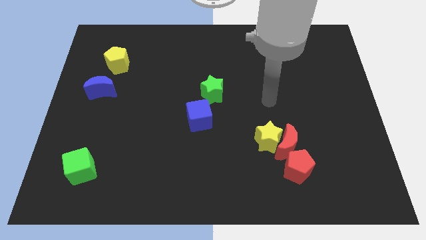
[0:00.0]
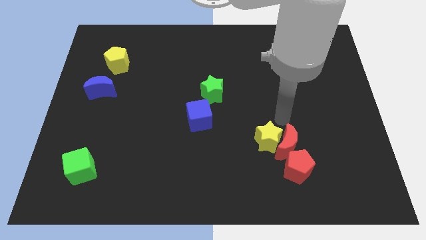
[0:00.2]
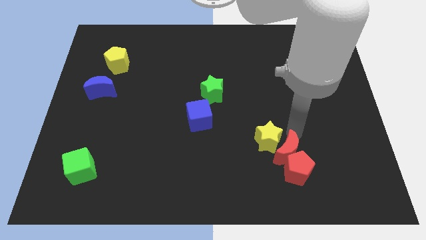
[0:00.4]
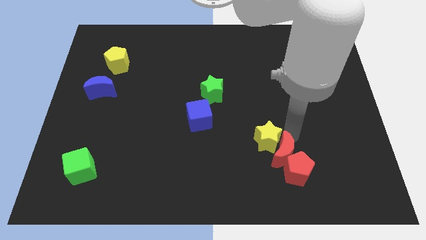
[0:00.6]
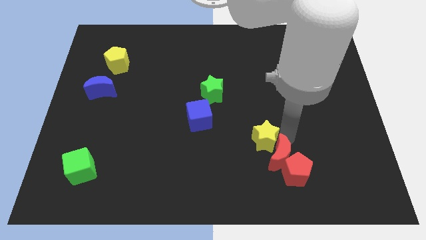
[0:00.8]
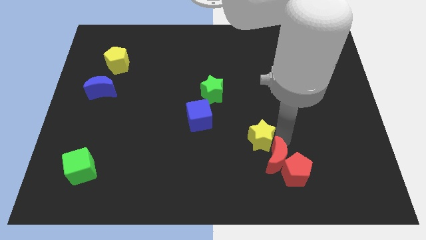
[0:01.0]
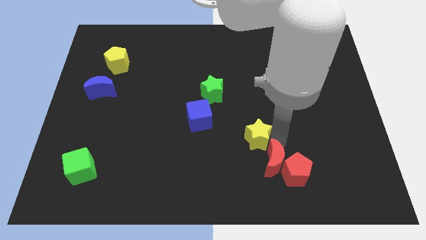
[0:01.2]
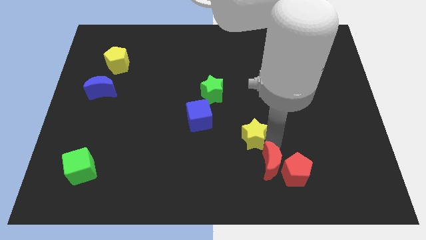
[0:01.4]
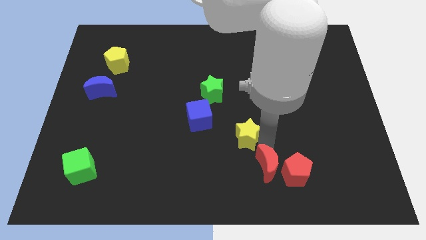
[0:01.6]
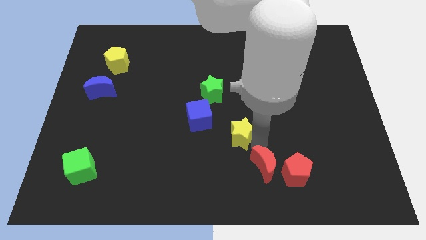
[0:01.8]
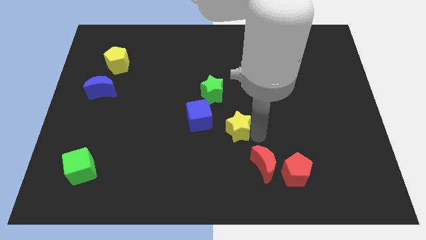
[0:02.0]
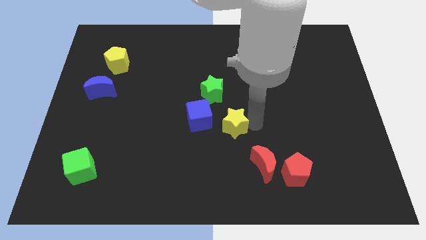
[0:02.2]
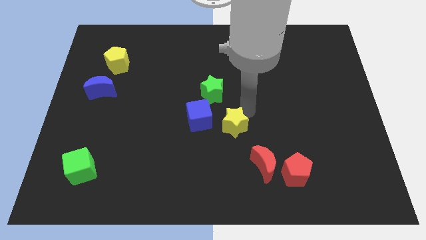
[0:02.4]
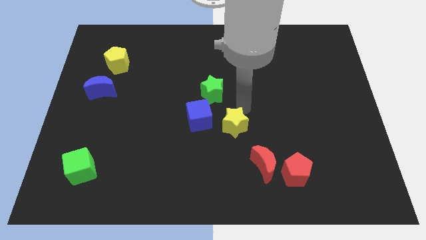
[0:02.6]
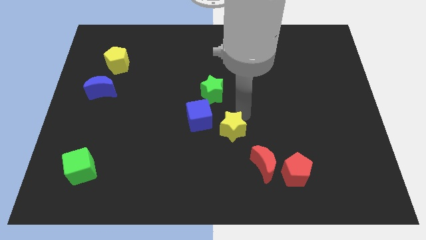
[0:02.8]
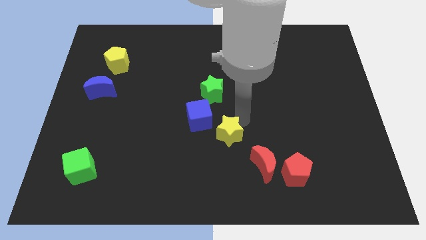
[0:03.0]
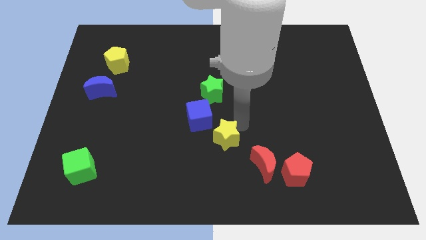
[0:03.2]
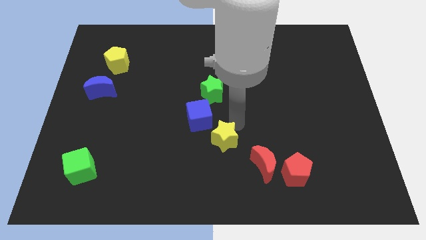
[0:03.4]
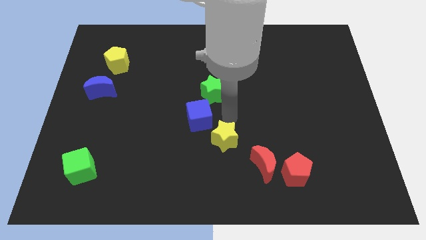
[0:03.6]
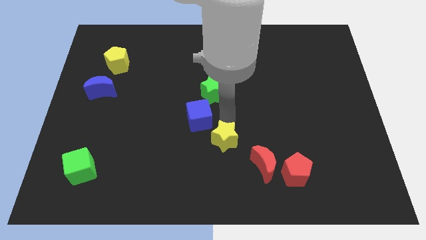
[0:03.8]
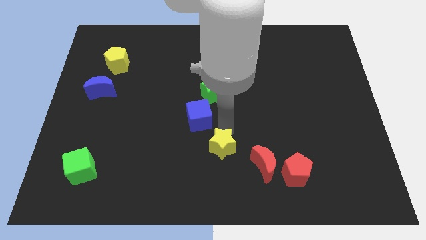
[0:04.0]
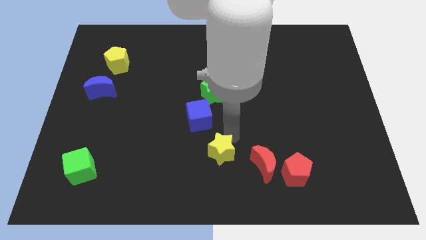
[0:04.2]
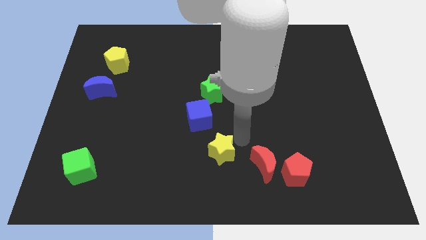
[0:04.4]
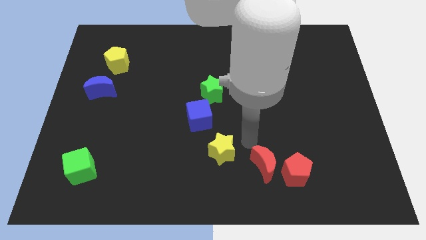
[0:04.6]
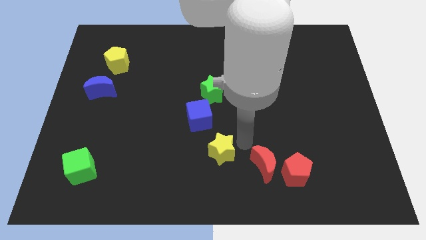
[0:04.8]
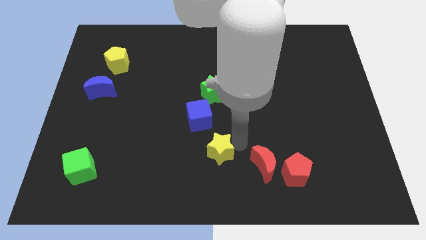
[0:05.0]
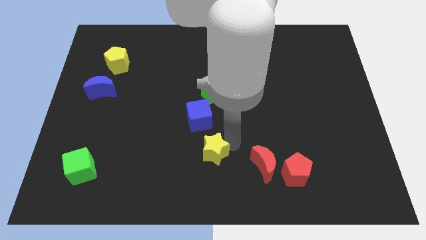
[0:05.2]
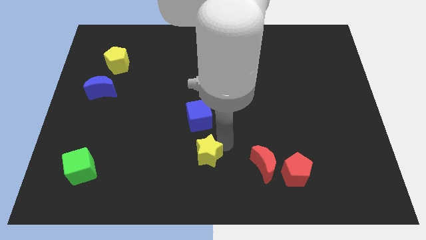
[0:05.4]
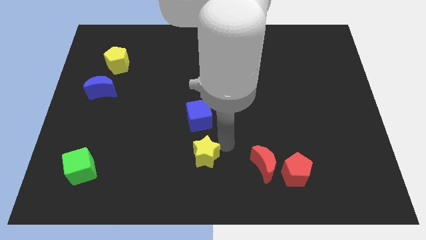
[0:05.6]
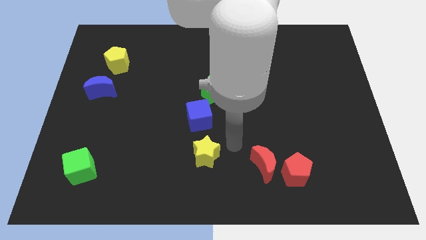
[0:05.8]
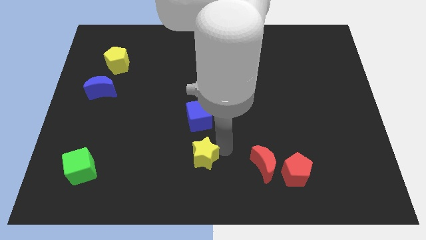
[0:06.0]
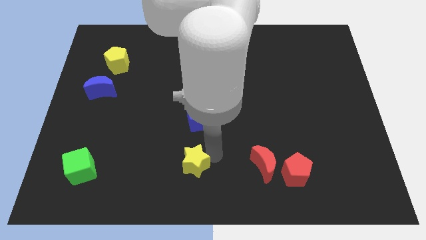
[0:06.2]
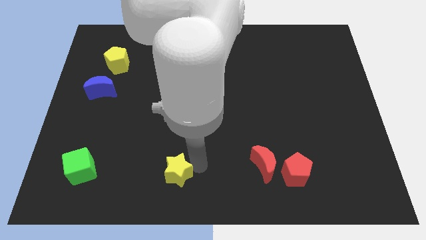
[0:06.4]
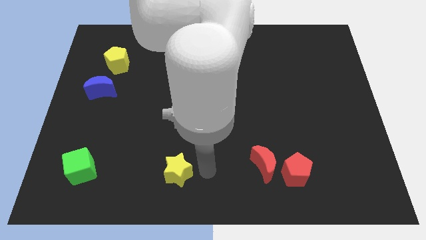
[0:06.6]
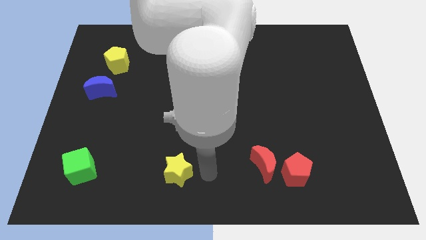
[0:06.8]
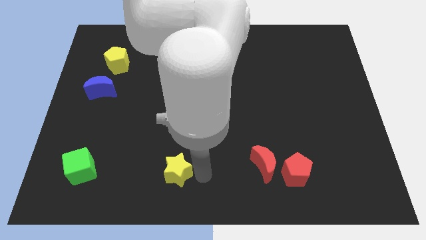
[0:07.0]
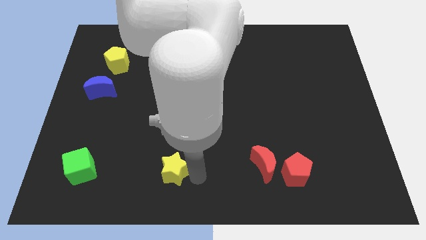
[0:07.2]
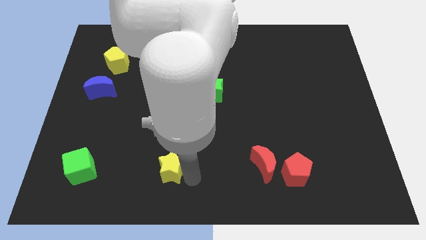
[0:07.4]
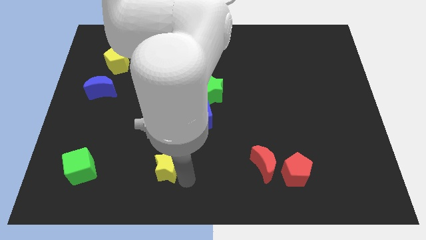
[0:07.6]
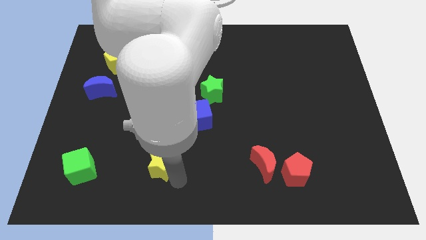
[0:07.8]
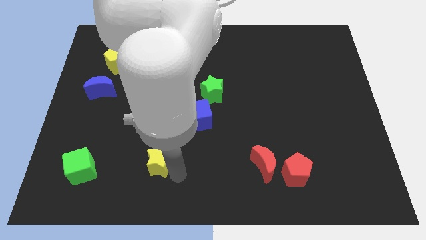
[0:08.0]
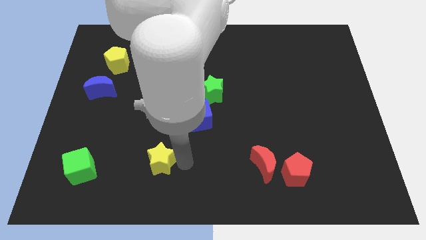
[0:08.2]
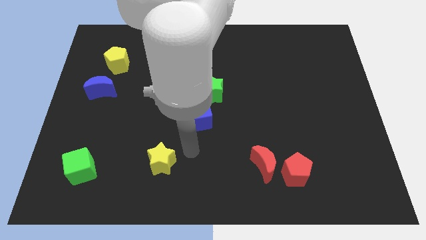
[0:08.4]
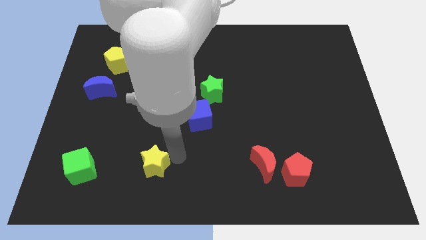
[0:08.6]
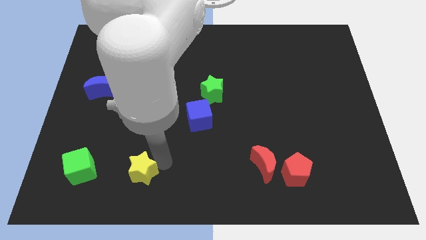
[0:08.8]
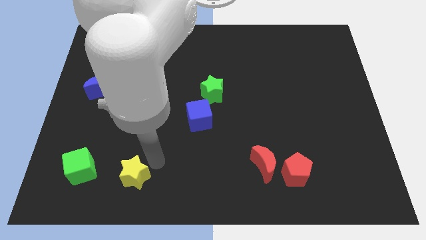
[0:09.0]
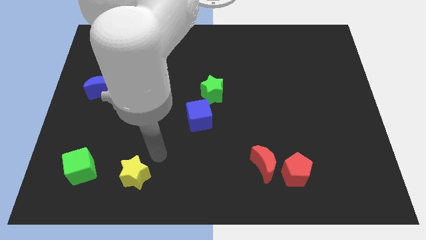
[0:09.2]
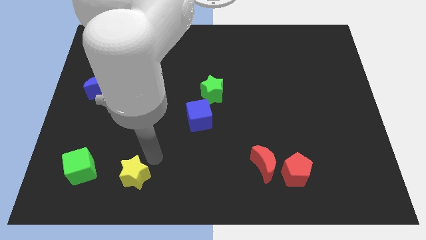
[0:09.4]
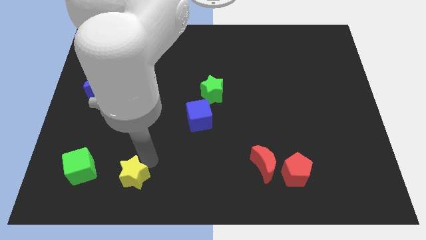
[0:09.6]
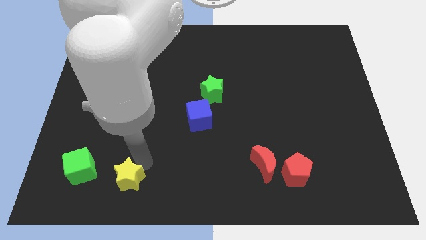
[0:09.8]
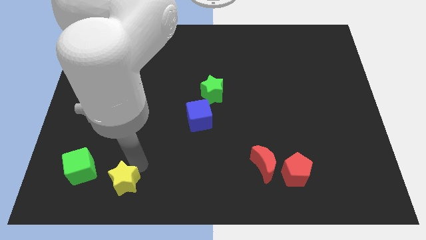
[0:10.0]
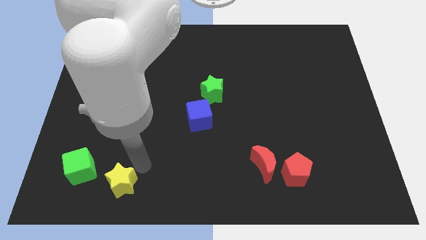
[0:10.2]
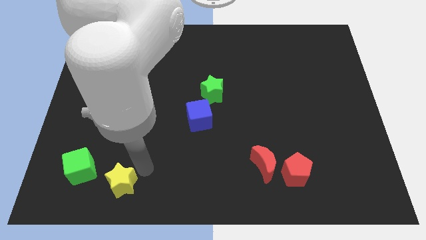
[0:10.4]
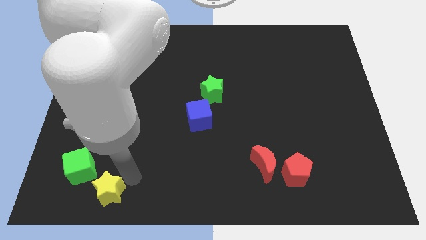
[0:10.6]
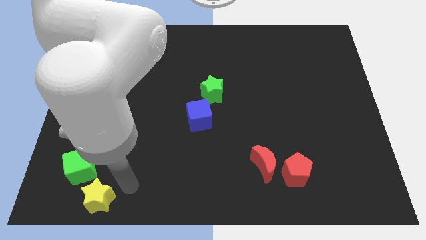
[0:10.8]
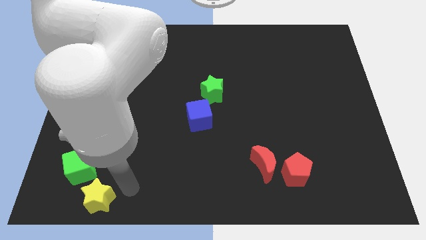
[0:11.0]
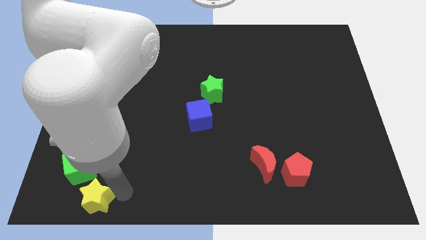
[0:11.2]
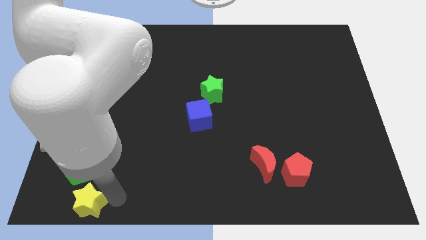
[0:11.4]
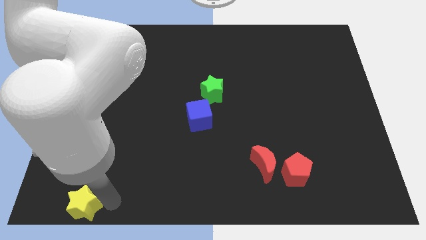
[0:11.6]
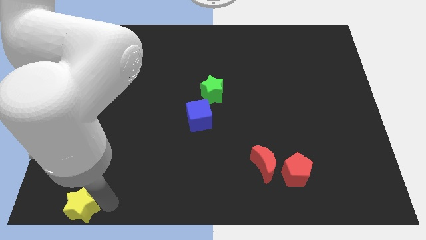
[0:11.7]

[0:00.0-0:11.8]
push the yellow star to the lower left corner
